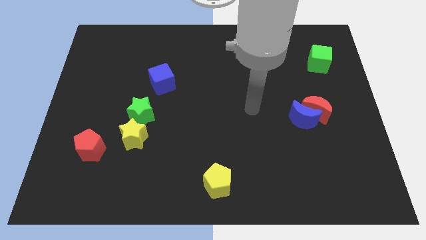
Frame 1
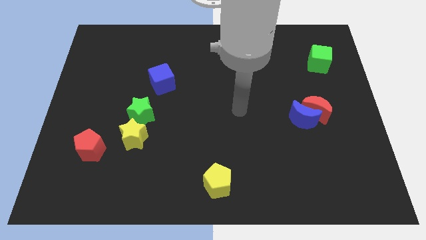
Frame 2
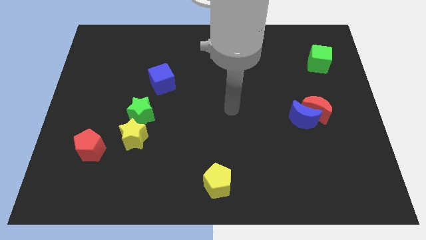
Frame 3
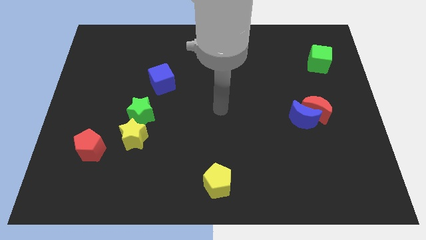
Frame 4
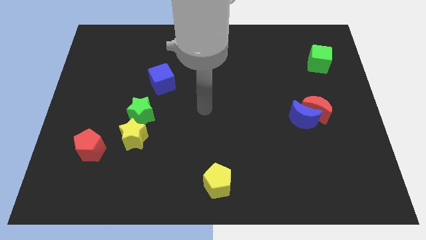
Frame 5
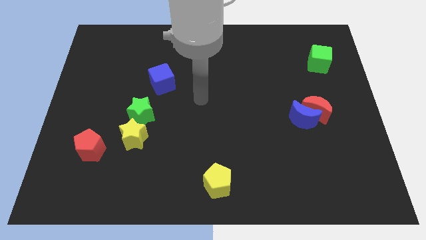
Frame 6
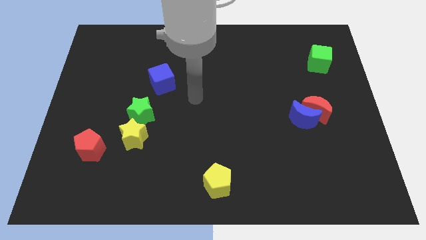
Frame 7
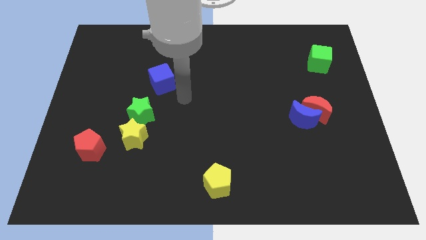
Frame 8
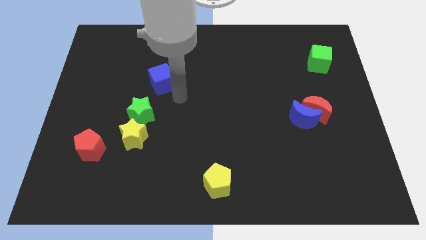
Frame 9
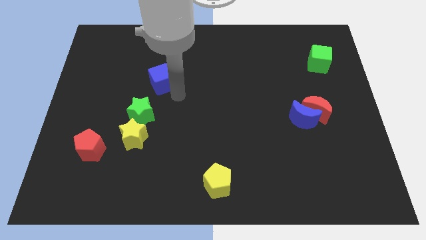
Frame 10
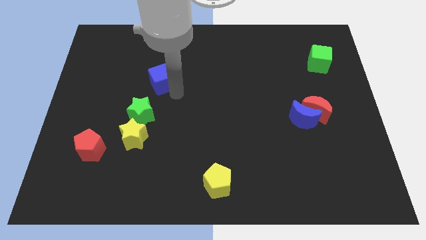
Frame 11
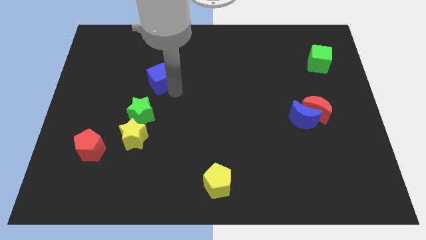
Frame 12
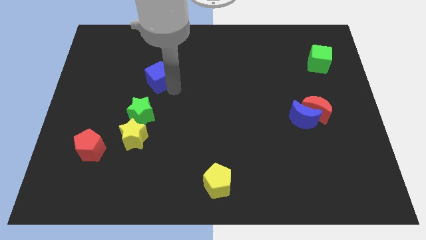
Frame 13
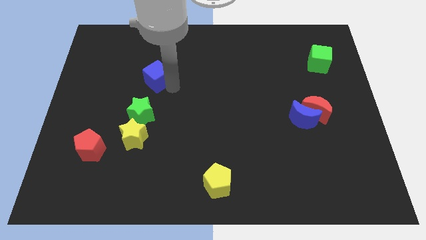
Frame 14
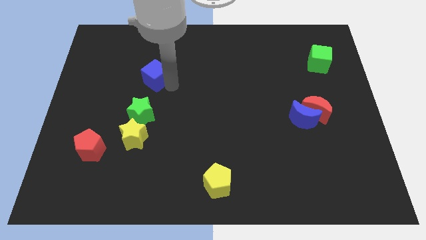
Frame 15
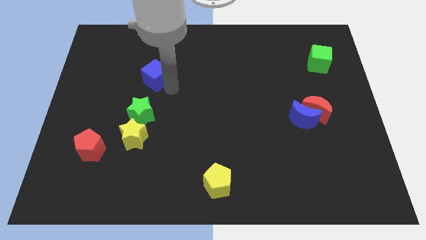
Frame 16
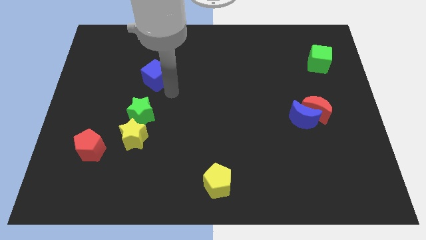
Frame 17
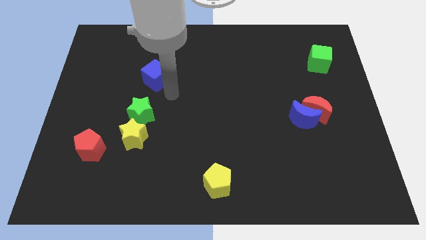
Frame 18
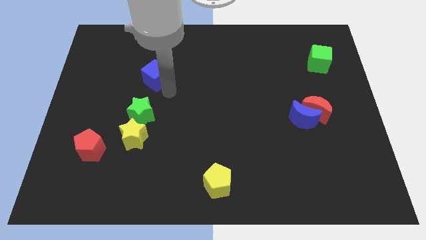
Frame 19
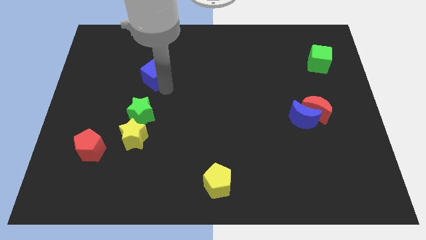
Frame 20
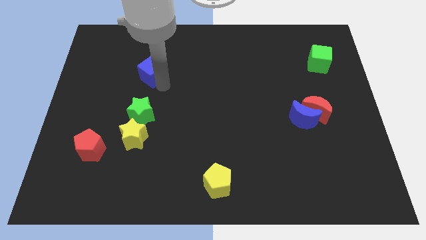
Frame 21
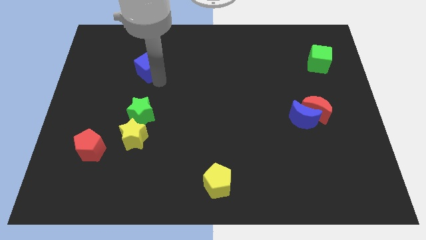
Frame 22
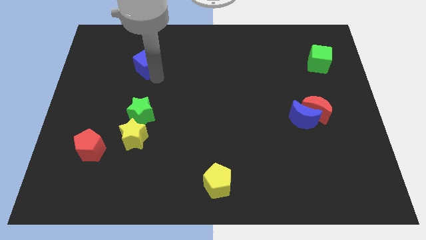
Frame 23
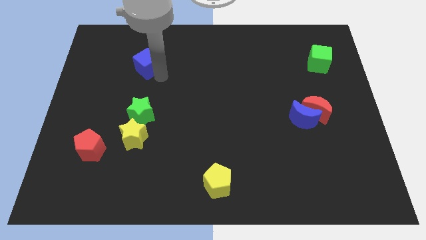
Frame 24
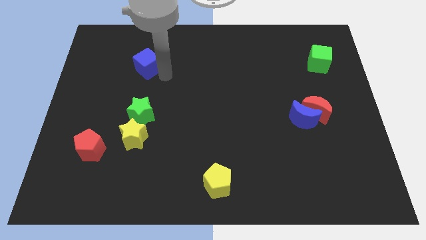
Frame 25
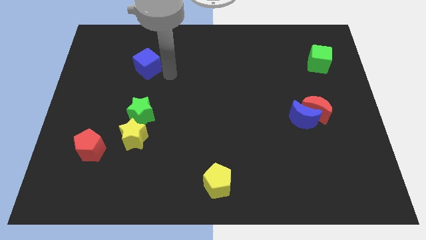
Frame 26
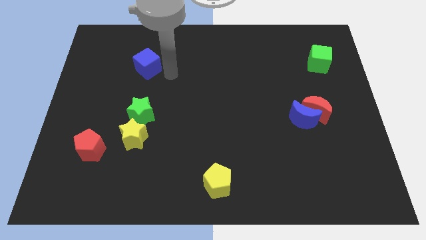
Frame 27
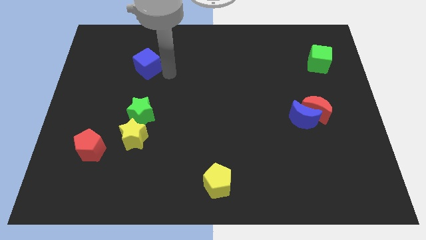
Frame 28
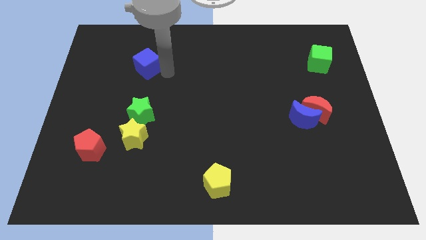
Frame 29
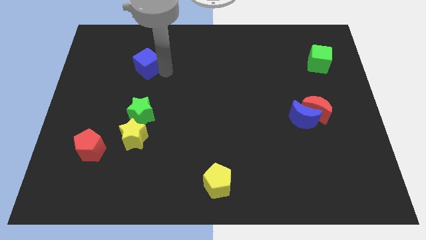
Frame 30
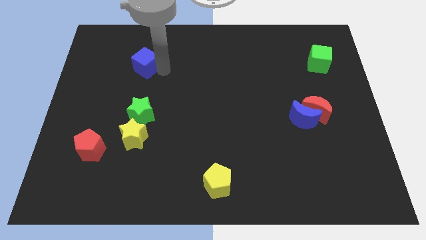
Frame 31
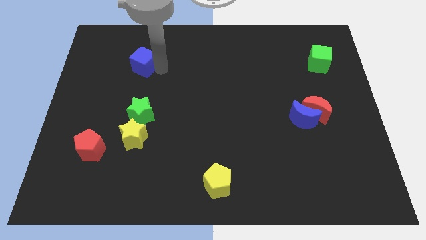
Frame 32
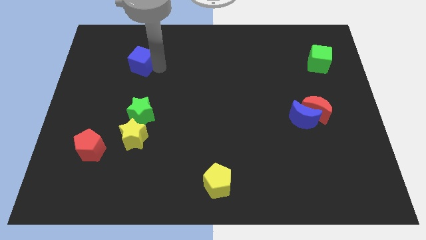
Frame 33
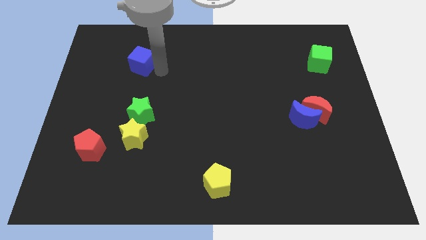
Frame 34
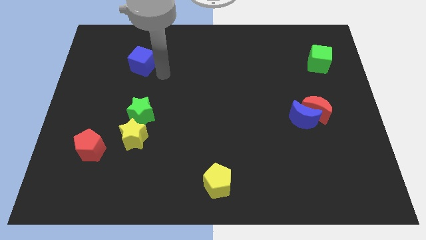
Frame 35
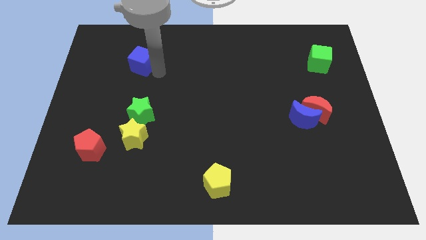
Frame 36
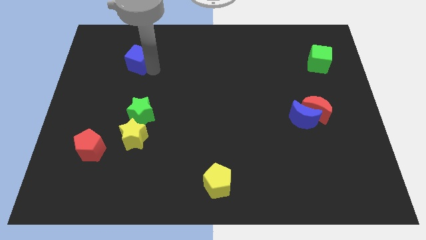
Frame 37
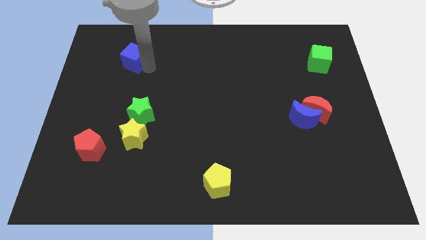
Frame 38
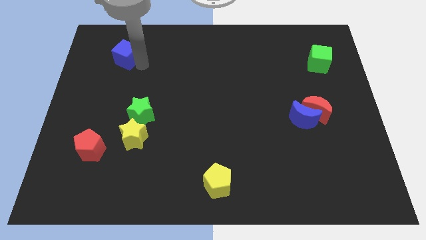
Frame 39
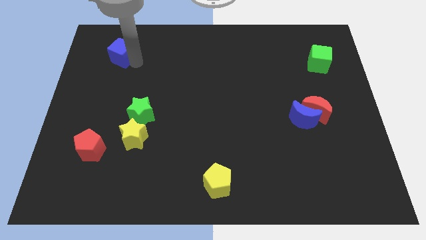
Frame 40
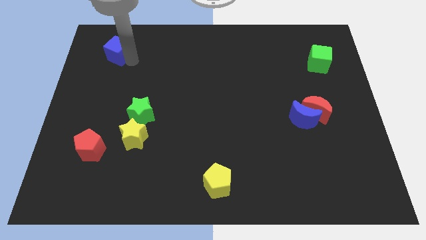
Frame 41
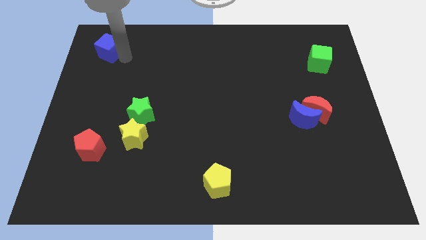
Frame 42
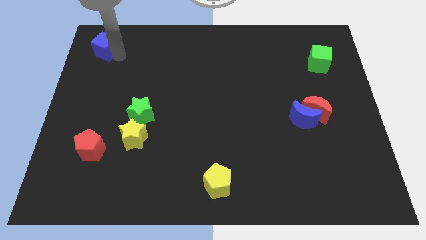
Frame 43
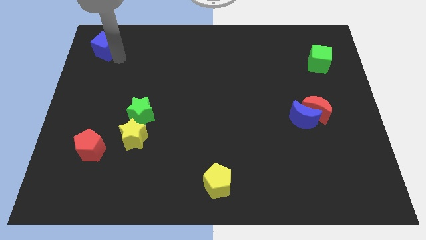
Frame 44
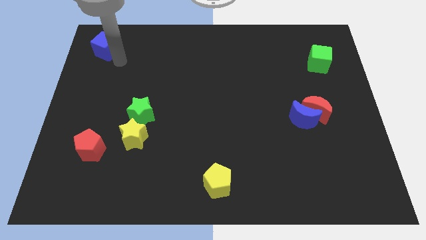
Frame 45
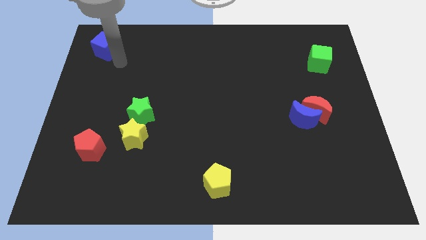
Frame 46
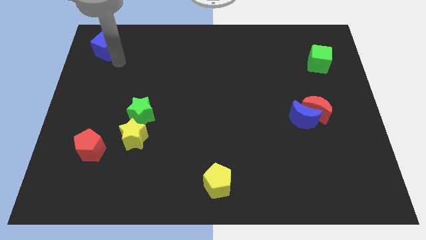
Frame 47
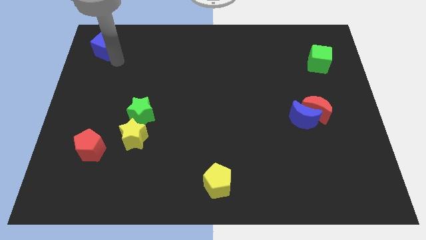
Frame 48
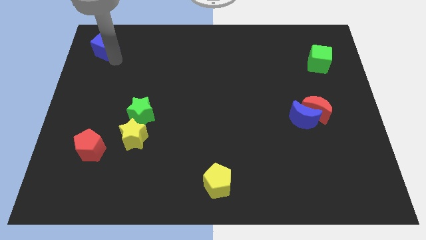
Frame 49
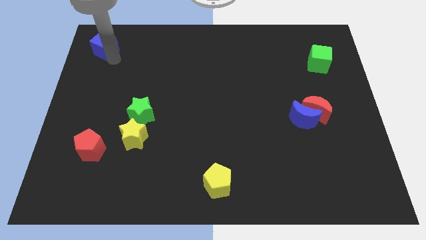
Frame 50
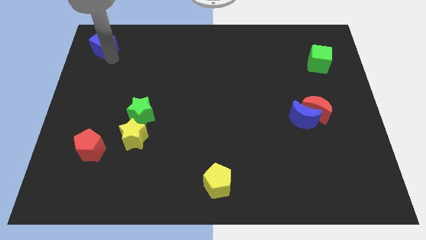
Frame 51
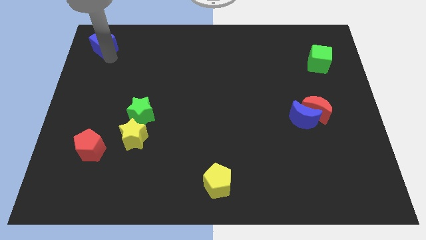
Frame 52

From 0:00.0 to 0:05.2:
put the blue cube to the upper left corner

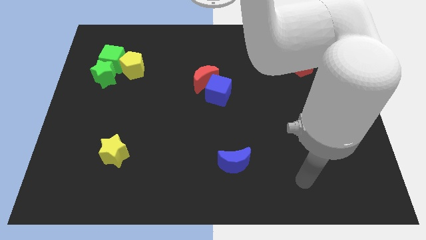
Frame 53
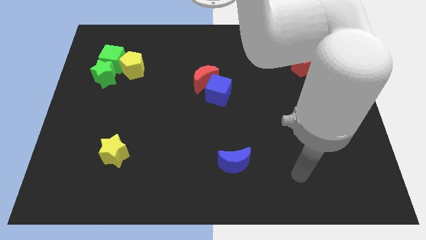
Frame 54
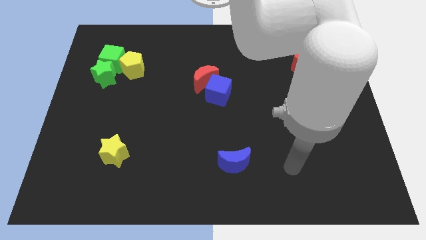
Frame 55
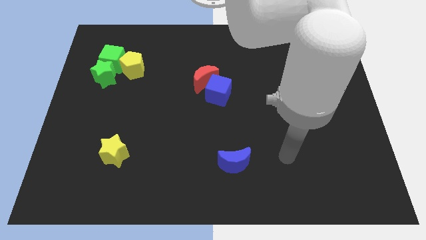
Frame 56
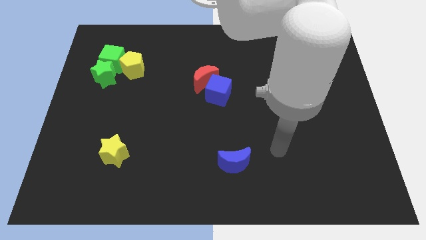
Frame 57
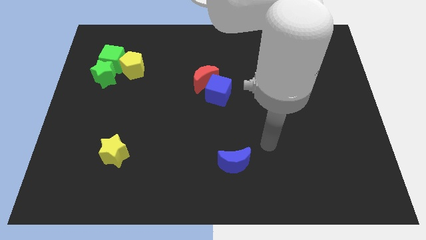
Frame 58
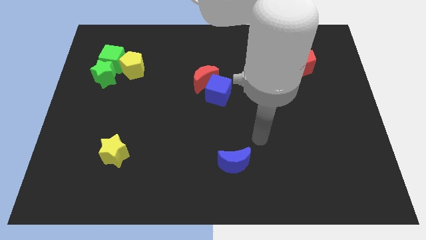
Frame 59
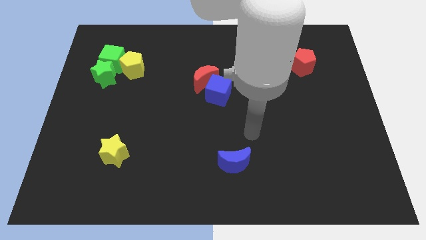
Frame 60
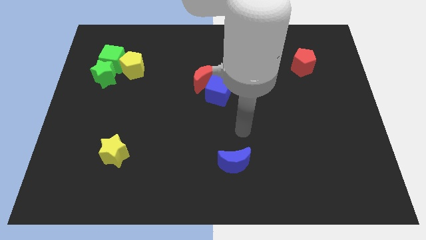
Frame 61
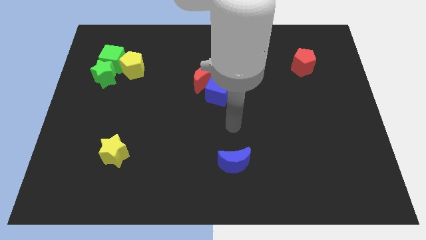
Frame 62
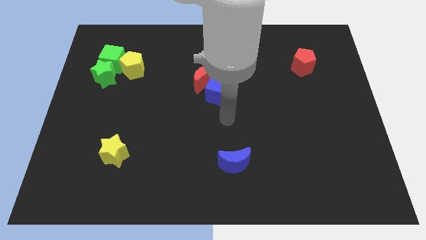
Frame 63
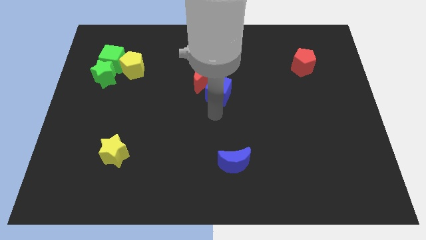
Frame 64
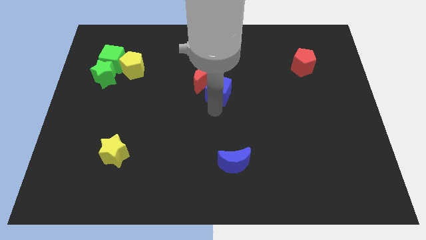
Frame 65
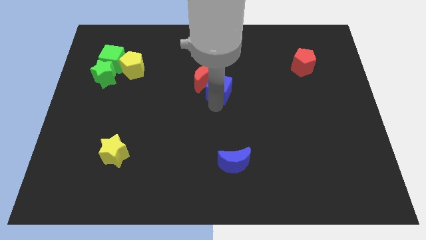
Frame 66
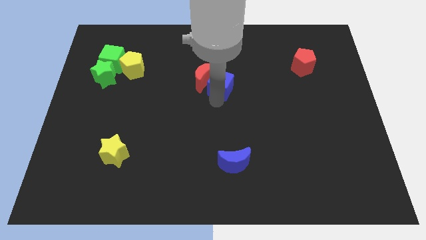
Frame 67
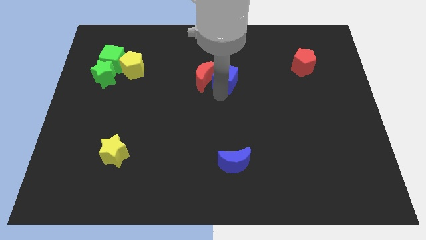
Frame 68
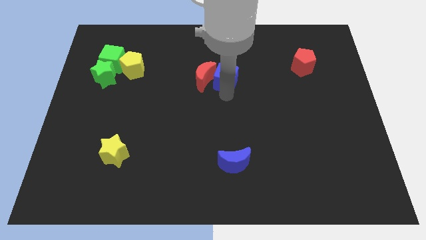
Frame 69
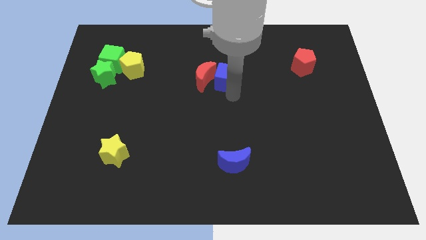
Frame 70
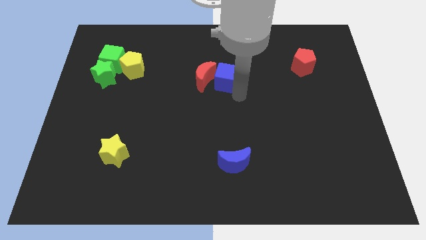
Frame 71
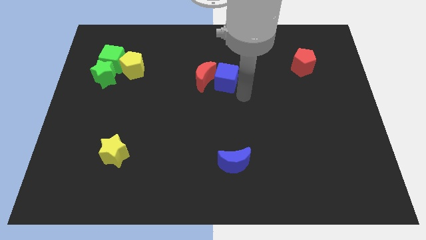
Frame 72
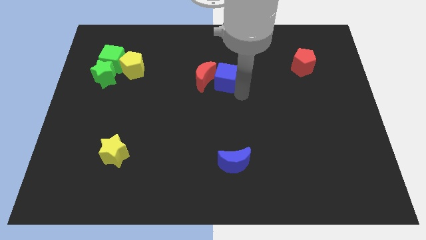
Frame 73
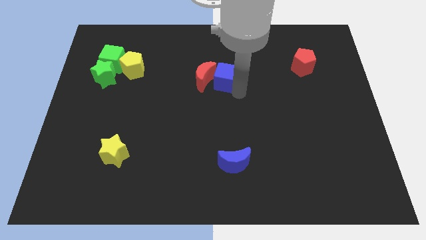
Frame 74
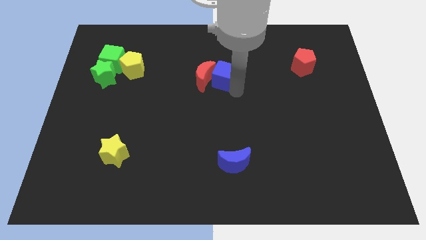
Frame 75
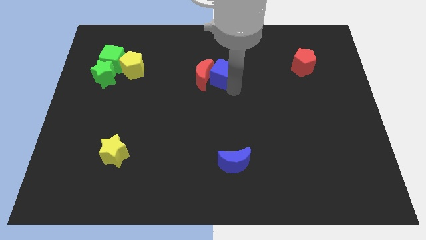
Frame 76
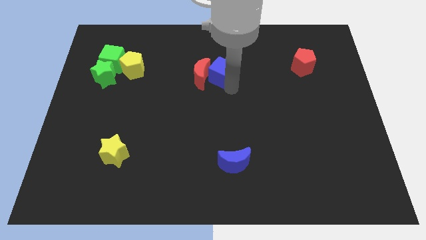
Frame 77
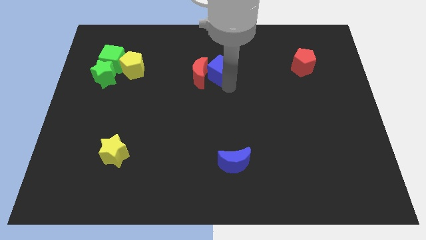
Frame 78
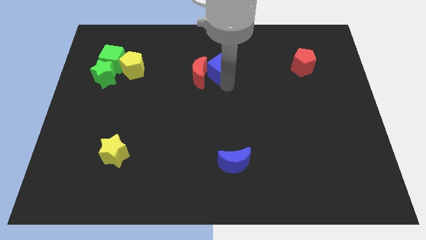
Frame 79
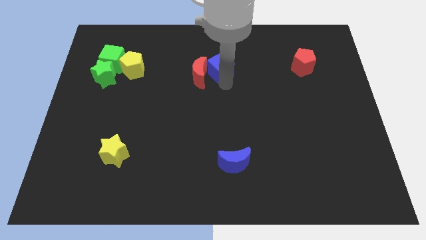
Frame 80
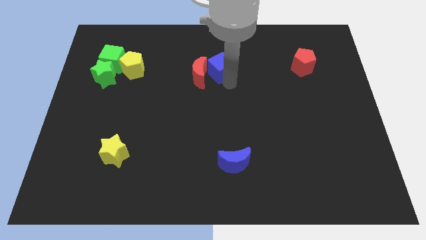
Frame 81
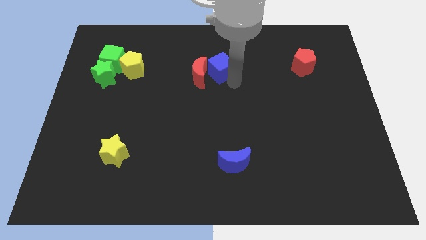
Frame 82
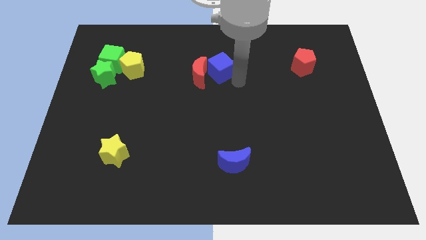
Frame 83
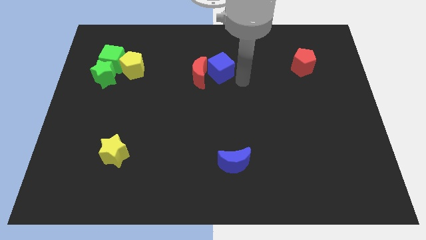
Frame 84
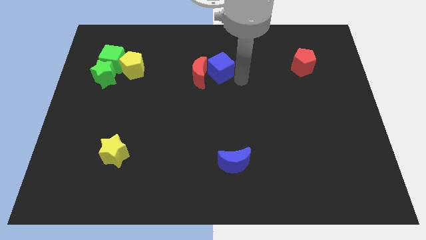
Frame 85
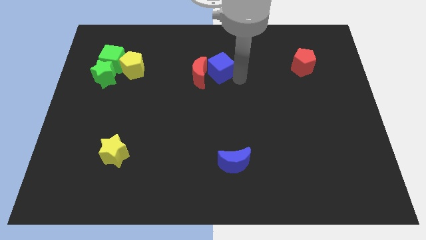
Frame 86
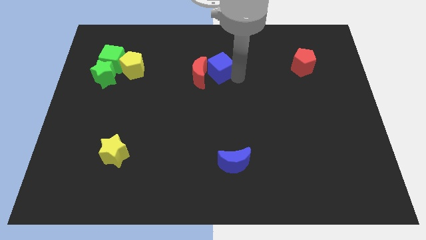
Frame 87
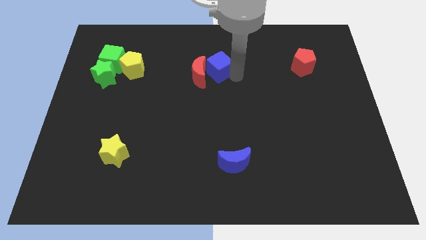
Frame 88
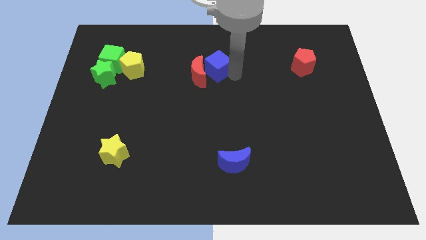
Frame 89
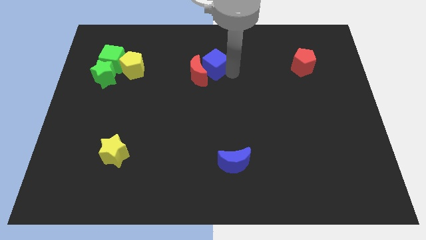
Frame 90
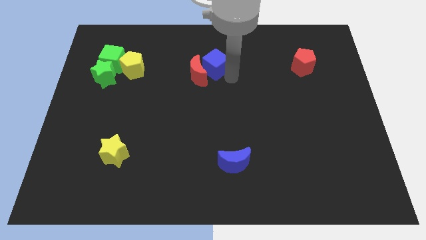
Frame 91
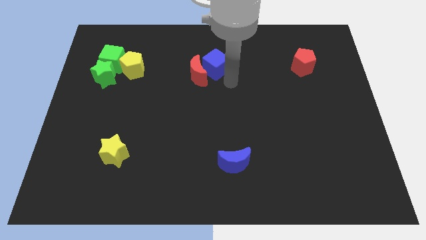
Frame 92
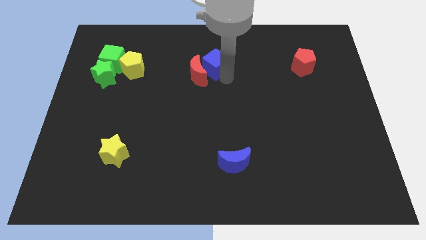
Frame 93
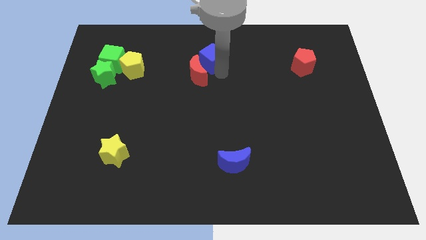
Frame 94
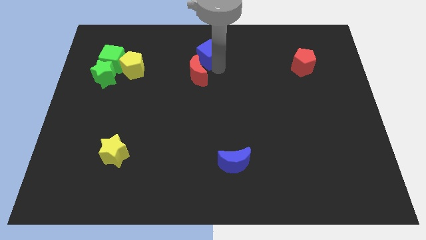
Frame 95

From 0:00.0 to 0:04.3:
push the blue cube to the top side
